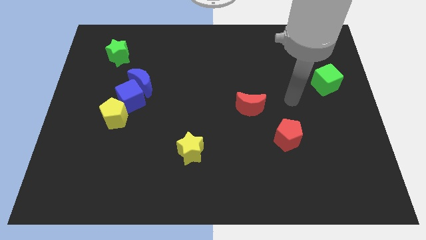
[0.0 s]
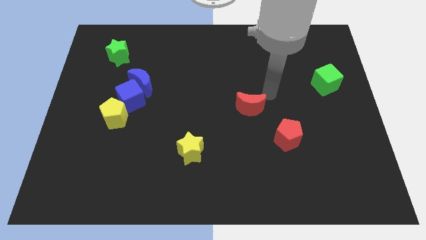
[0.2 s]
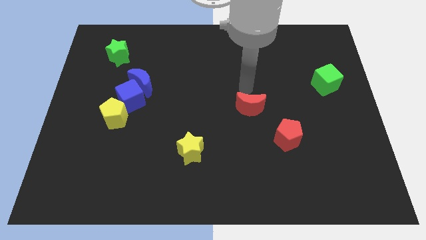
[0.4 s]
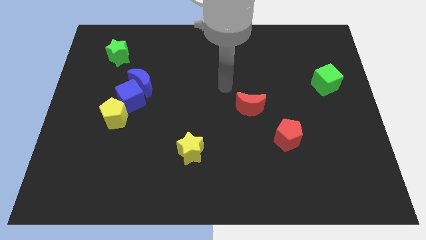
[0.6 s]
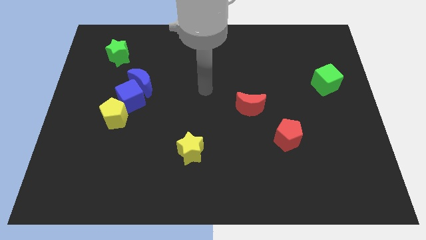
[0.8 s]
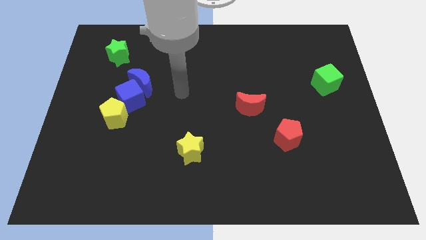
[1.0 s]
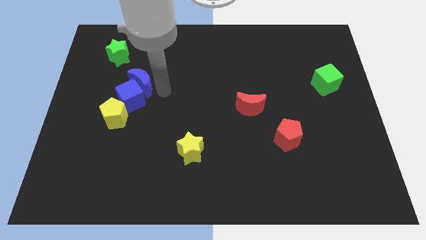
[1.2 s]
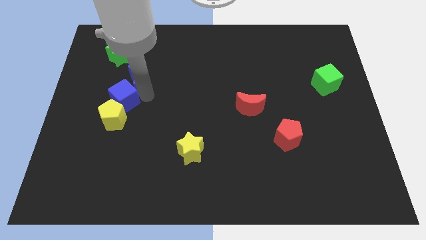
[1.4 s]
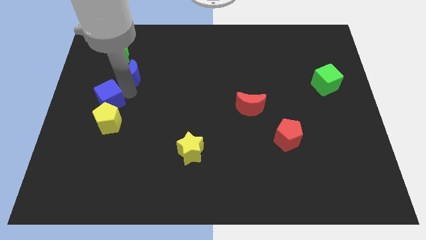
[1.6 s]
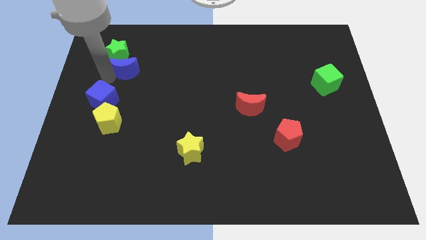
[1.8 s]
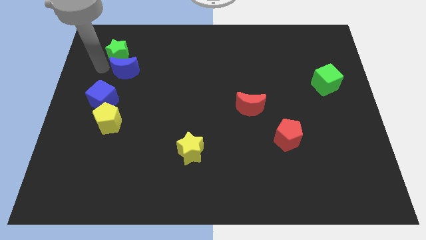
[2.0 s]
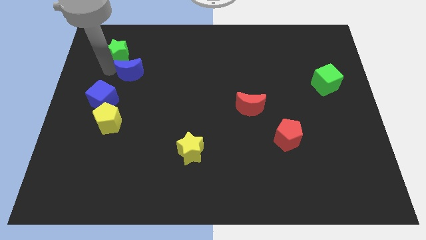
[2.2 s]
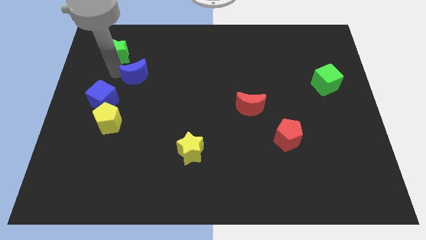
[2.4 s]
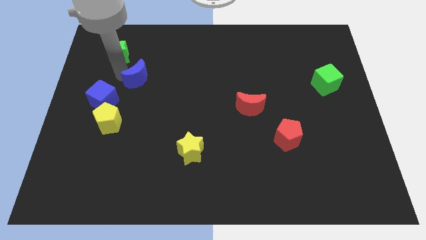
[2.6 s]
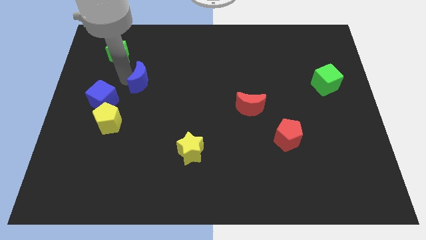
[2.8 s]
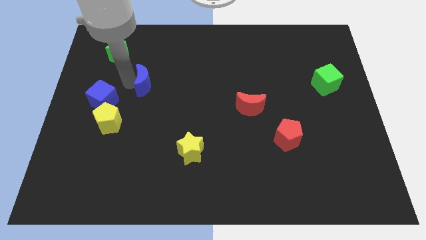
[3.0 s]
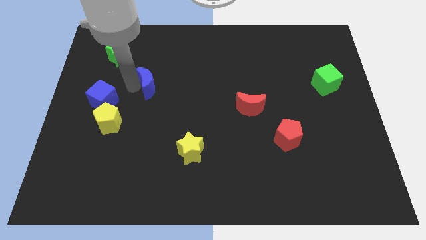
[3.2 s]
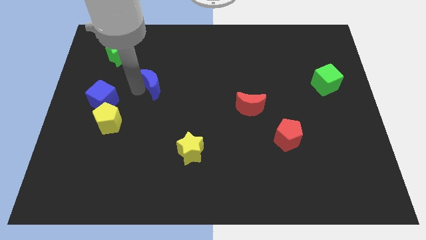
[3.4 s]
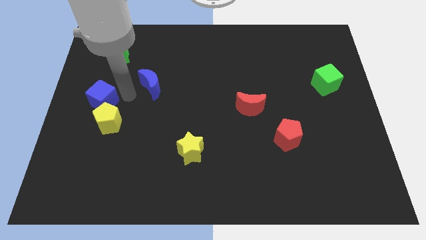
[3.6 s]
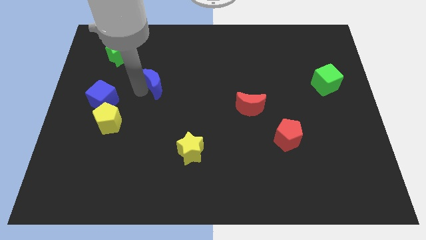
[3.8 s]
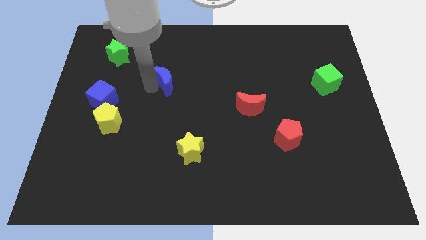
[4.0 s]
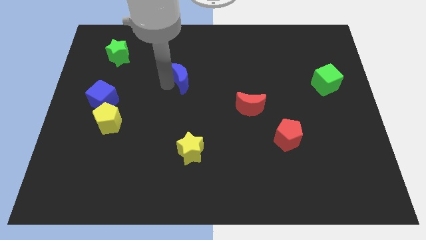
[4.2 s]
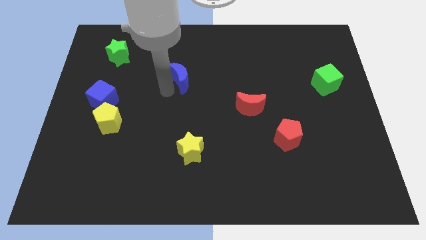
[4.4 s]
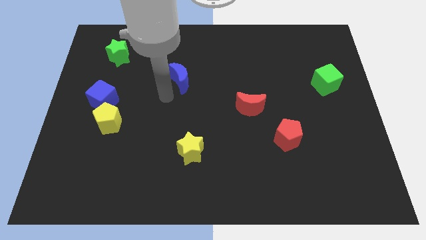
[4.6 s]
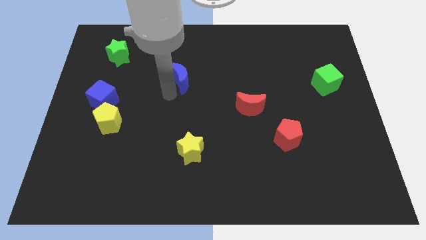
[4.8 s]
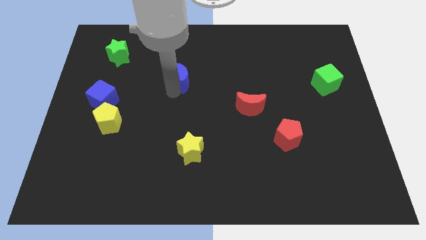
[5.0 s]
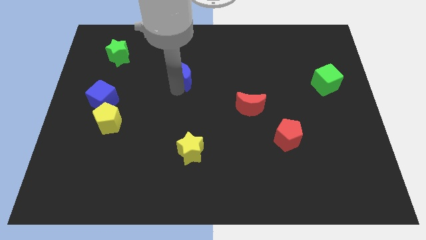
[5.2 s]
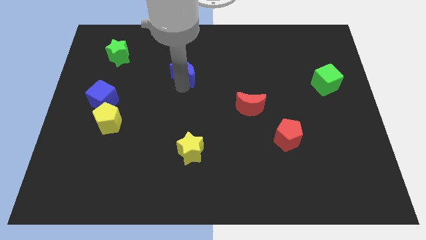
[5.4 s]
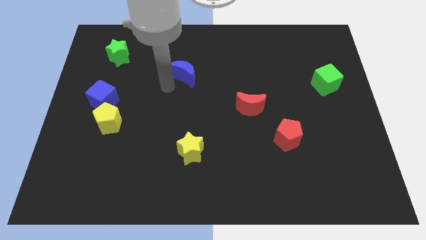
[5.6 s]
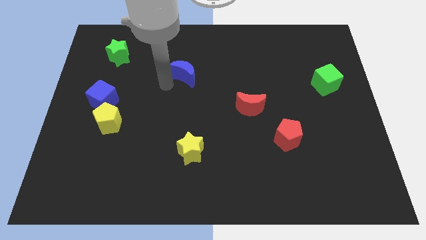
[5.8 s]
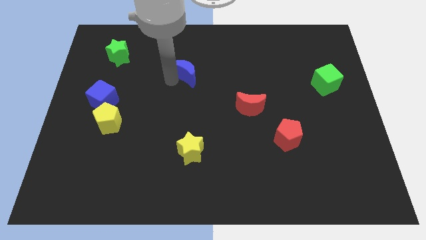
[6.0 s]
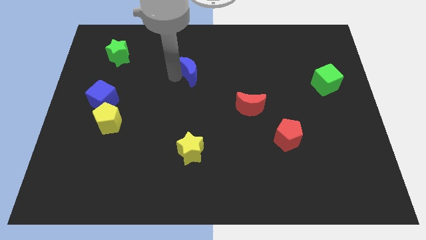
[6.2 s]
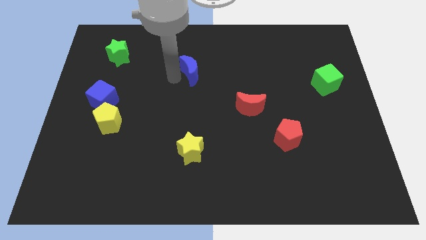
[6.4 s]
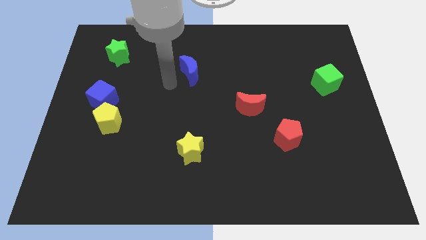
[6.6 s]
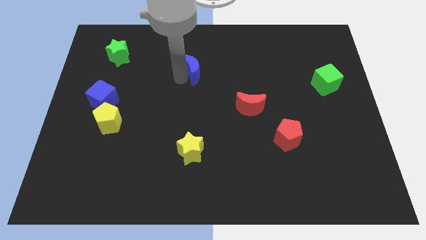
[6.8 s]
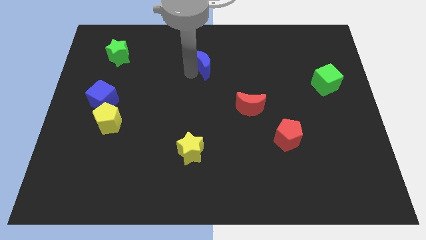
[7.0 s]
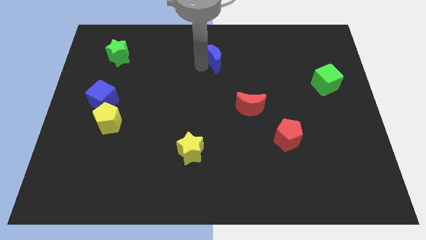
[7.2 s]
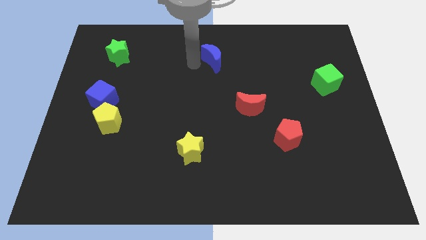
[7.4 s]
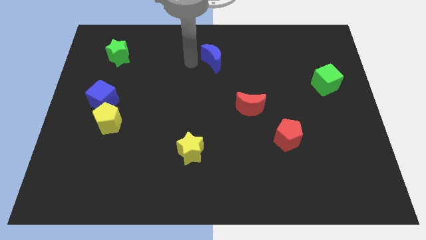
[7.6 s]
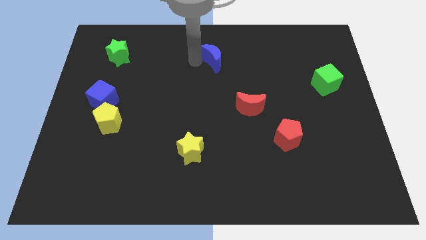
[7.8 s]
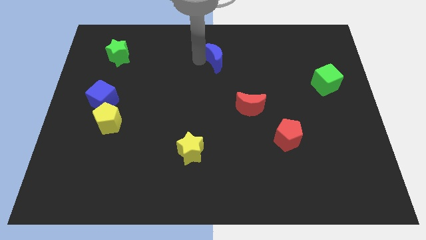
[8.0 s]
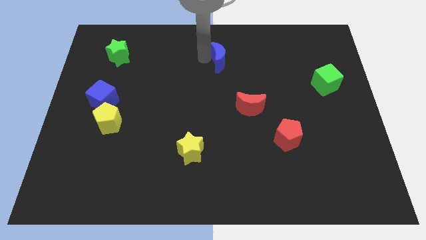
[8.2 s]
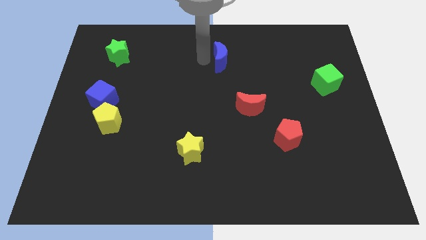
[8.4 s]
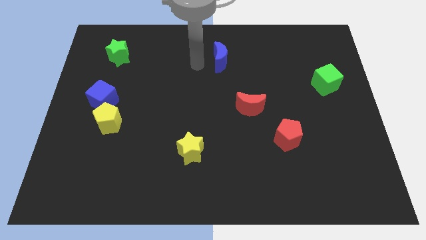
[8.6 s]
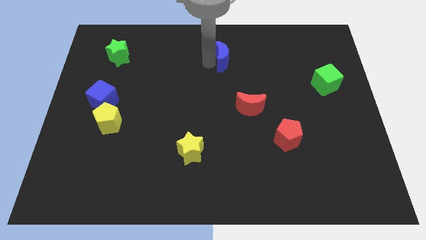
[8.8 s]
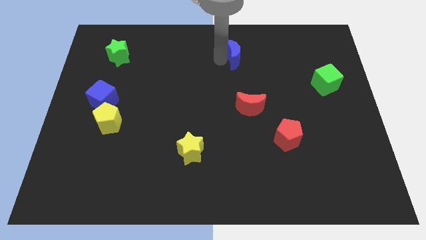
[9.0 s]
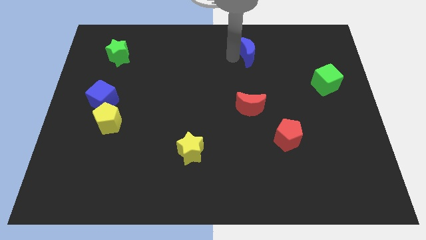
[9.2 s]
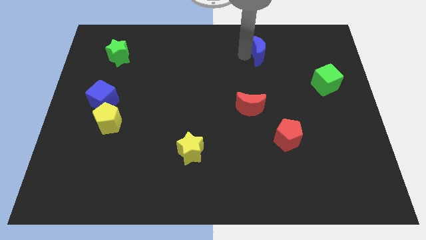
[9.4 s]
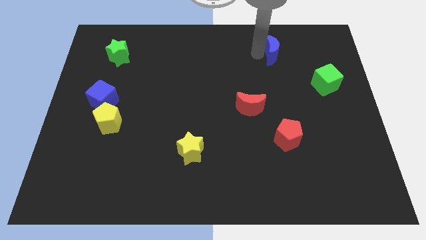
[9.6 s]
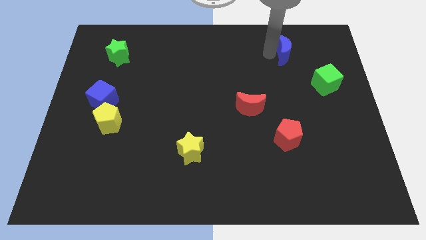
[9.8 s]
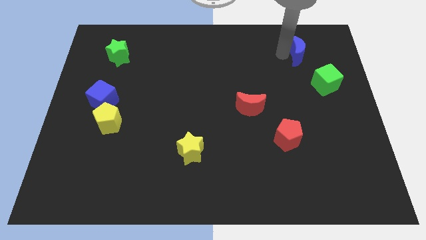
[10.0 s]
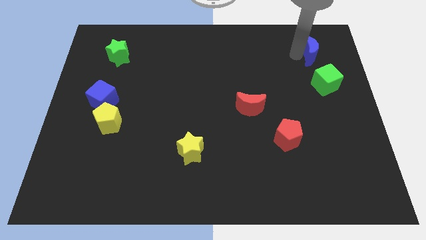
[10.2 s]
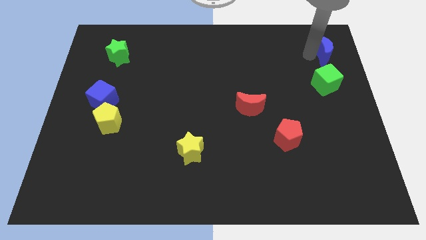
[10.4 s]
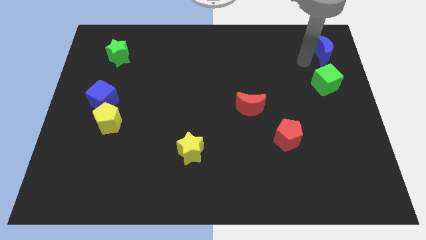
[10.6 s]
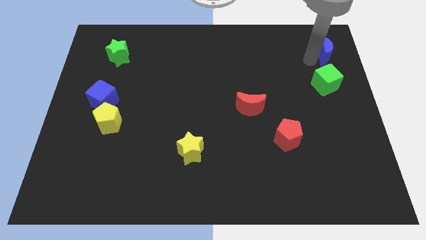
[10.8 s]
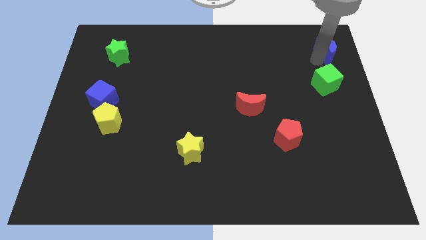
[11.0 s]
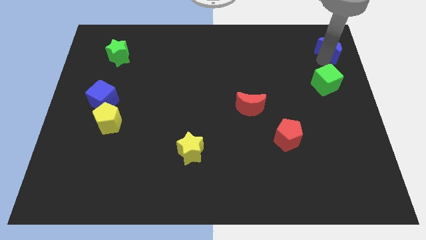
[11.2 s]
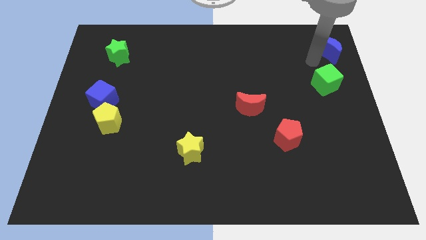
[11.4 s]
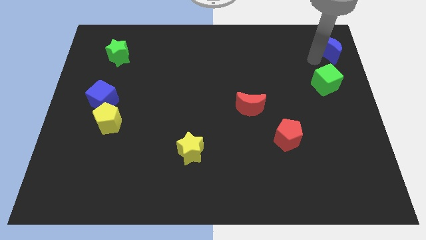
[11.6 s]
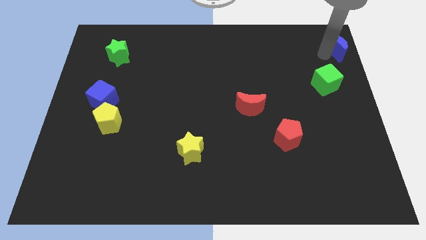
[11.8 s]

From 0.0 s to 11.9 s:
slide the blue moon to the upper right corner

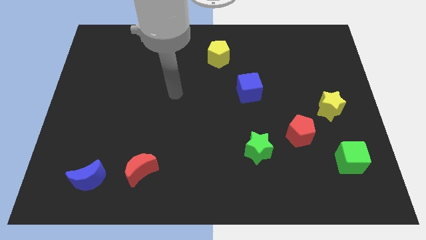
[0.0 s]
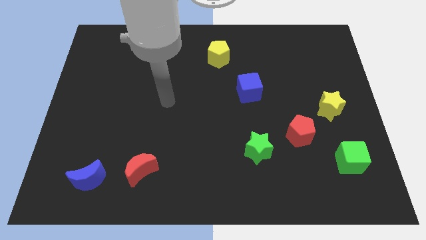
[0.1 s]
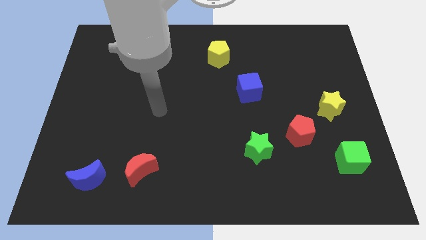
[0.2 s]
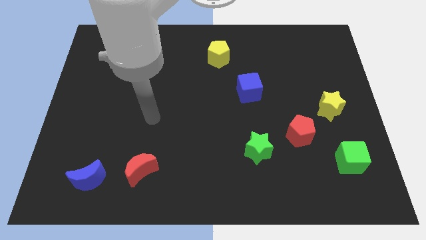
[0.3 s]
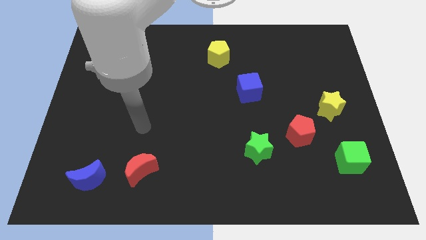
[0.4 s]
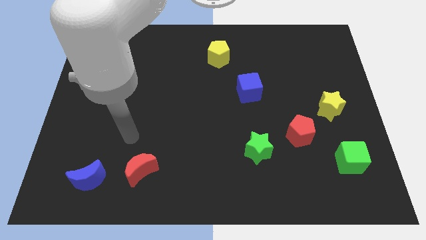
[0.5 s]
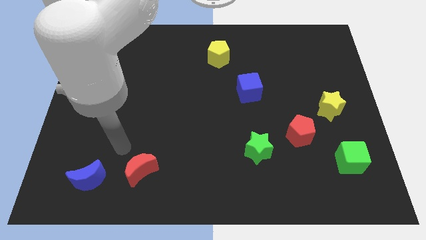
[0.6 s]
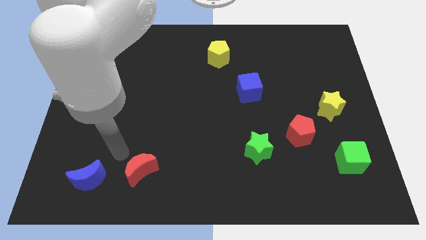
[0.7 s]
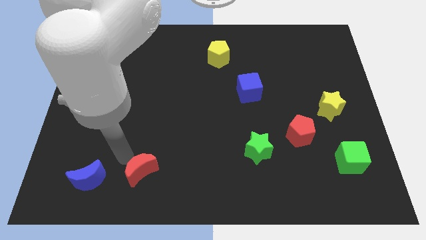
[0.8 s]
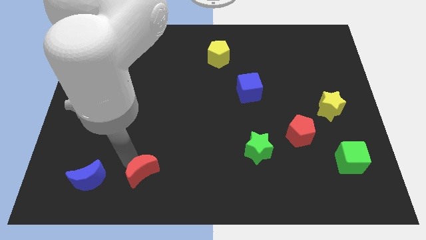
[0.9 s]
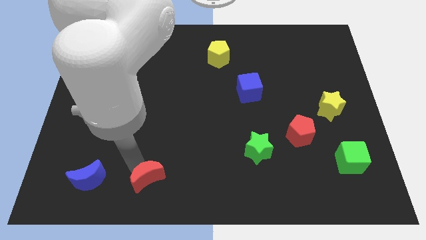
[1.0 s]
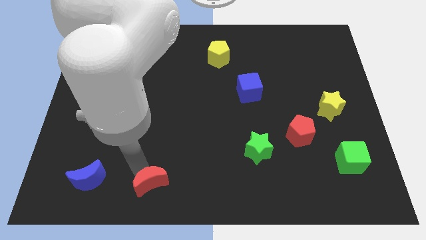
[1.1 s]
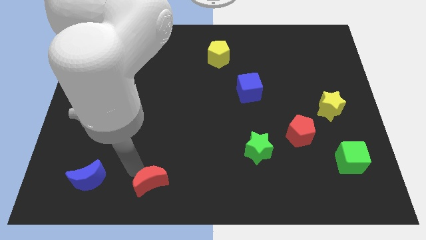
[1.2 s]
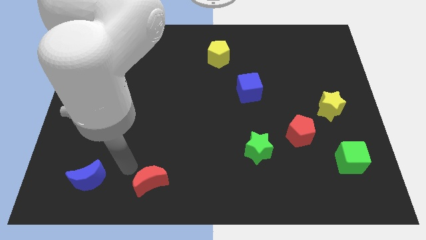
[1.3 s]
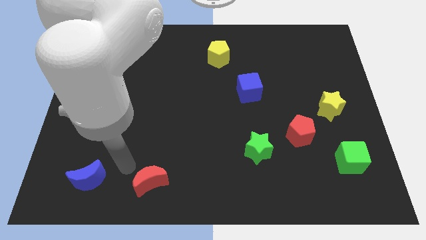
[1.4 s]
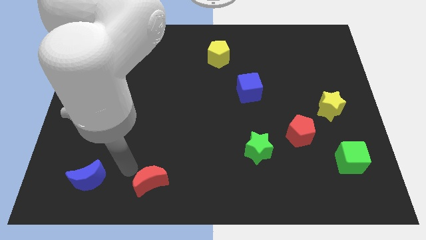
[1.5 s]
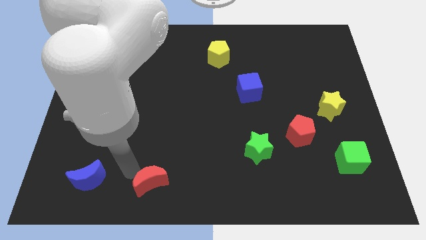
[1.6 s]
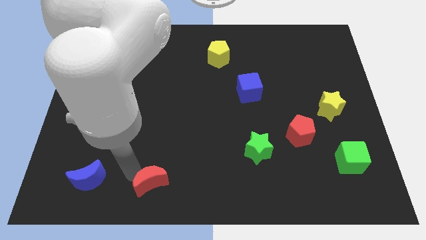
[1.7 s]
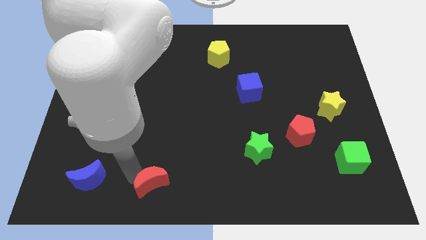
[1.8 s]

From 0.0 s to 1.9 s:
slide the red moon to the bottom
